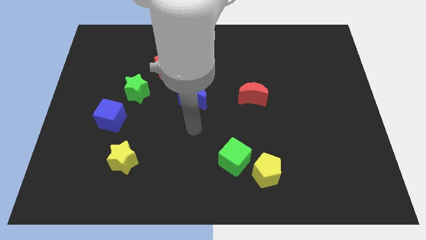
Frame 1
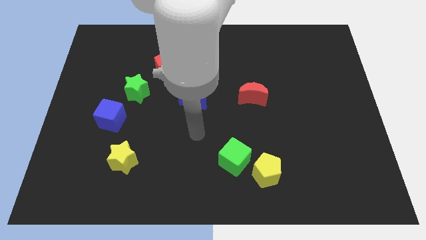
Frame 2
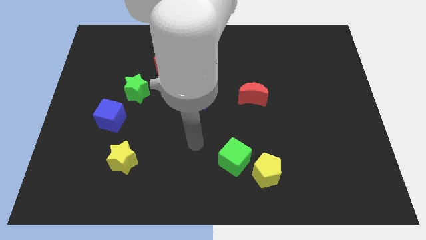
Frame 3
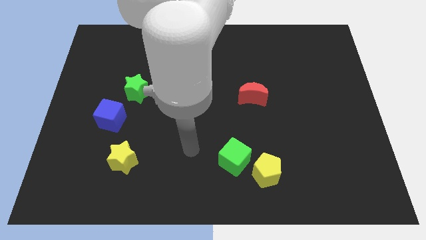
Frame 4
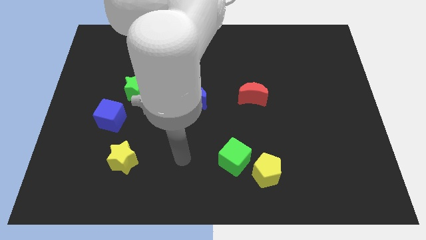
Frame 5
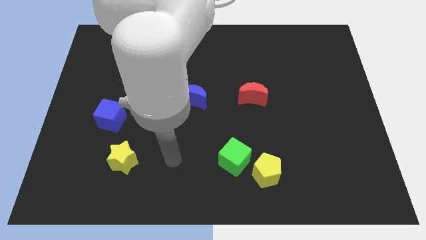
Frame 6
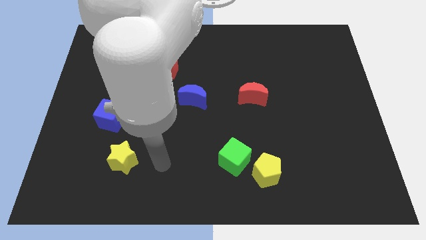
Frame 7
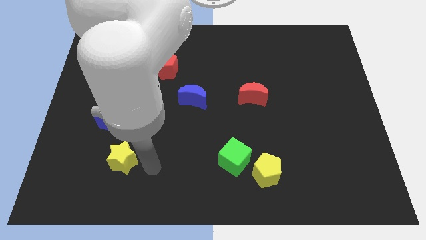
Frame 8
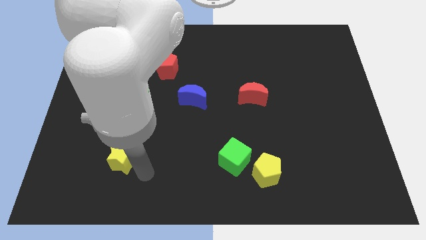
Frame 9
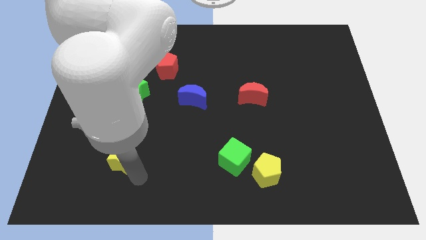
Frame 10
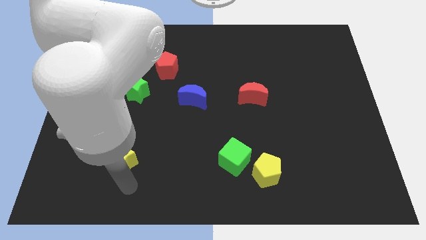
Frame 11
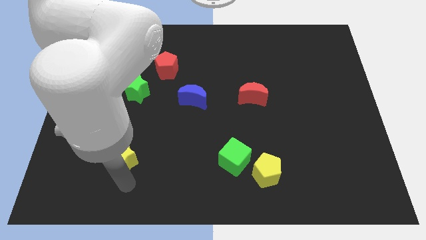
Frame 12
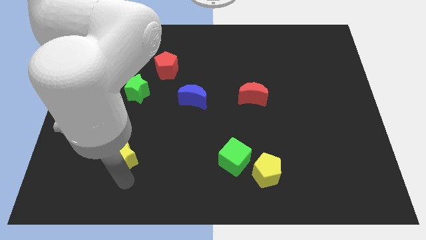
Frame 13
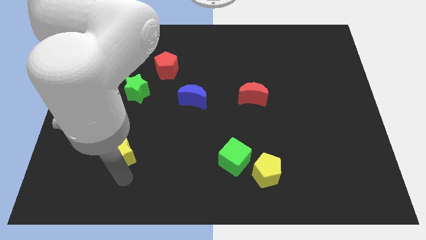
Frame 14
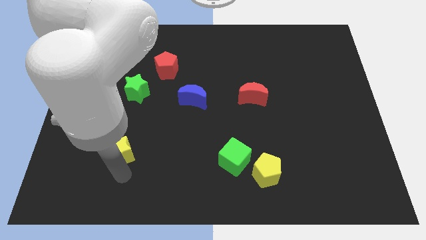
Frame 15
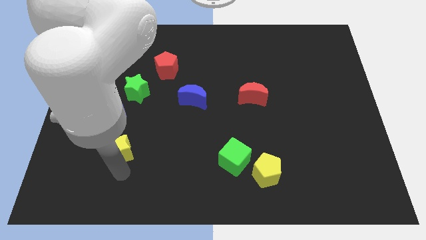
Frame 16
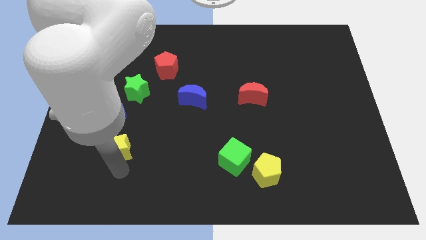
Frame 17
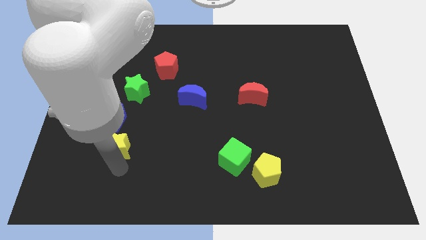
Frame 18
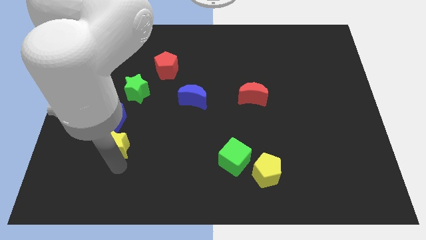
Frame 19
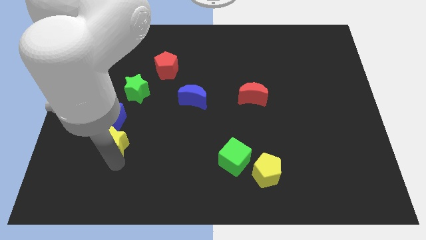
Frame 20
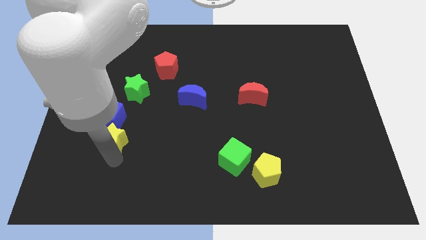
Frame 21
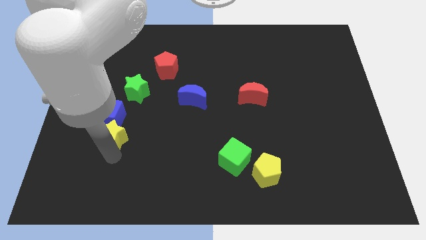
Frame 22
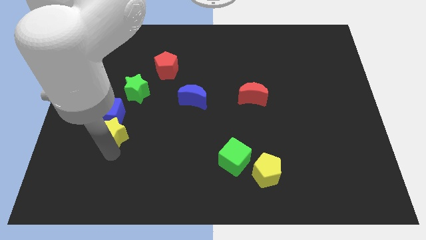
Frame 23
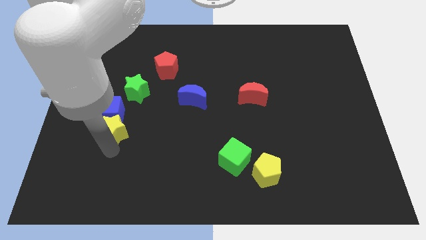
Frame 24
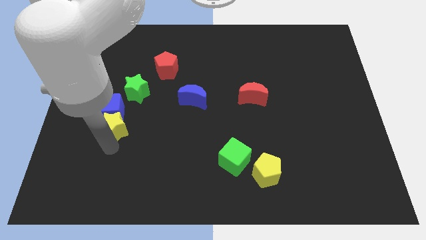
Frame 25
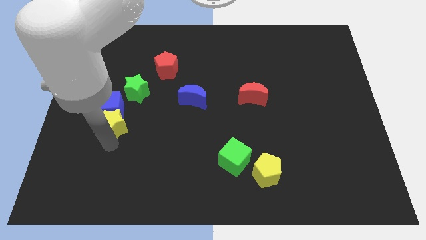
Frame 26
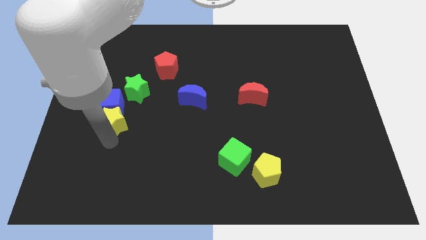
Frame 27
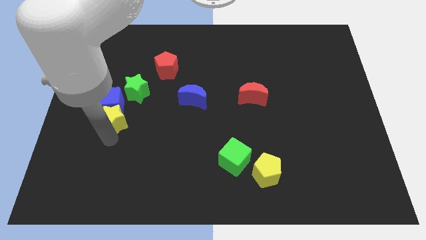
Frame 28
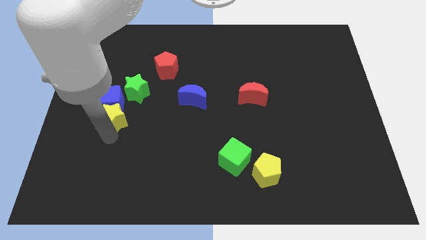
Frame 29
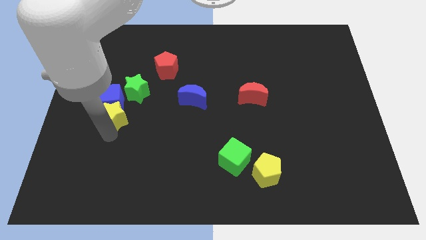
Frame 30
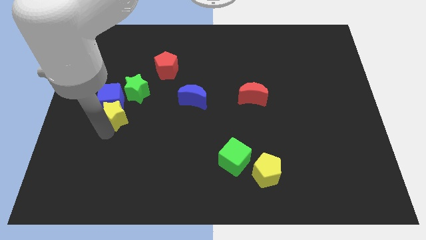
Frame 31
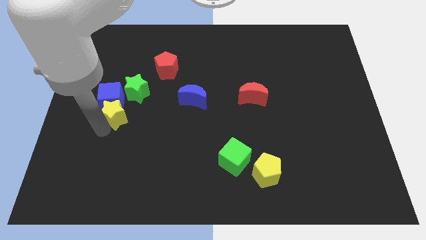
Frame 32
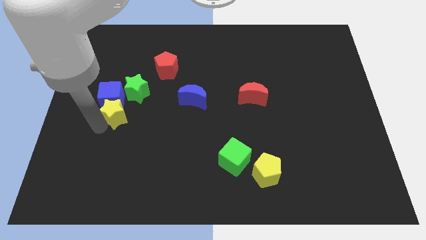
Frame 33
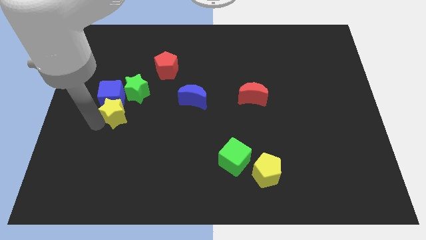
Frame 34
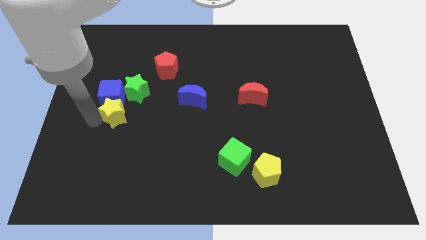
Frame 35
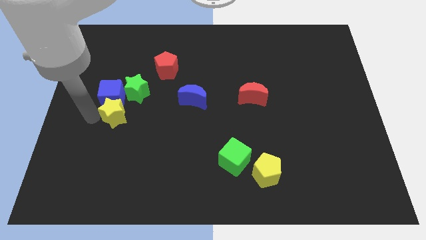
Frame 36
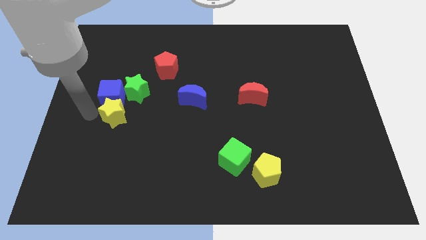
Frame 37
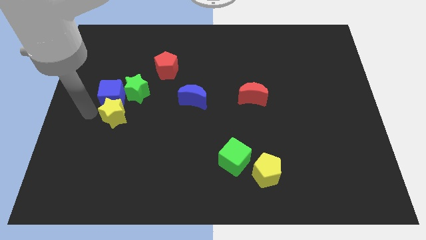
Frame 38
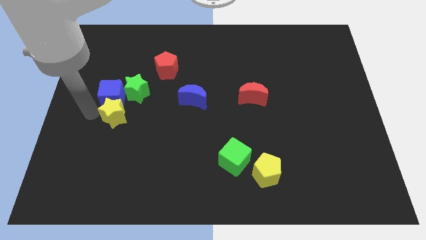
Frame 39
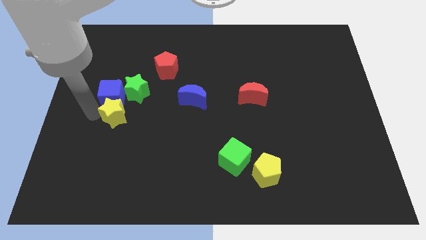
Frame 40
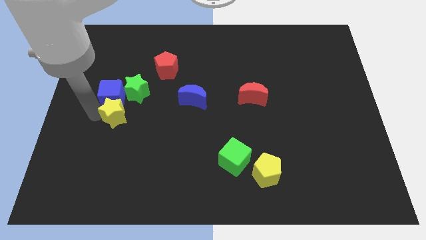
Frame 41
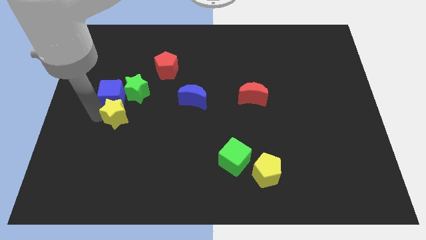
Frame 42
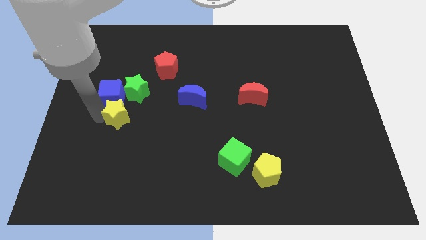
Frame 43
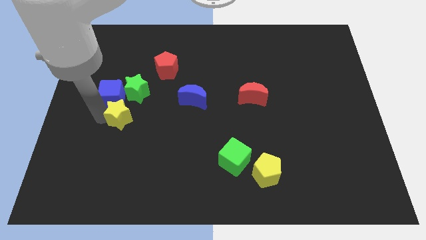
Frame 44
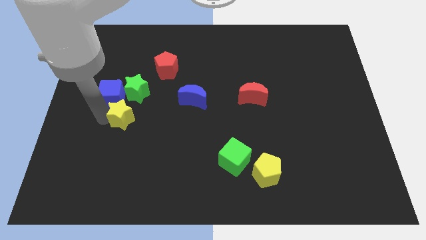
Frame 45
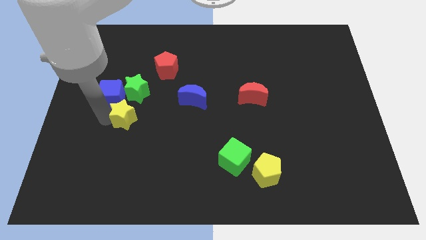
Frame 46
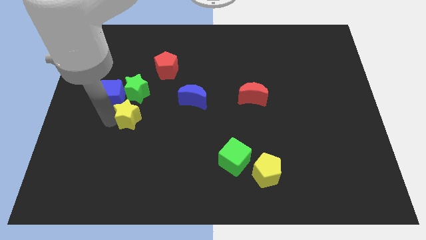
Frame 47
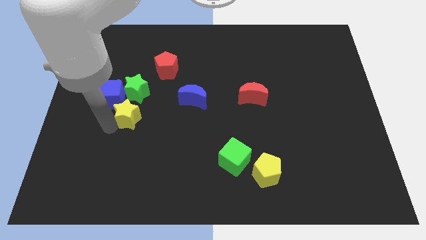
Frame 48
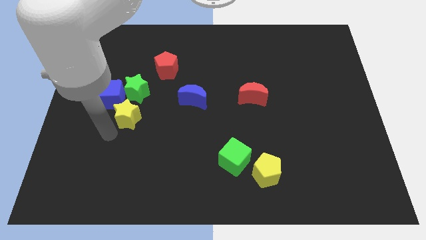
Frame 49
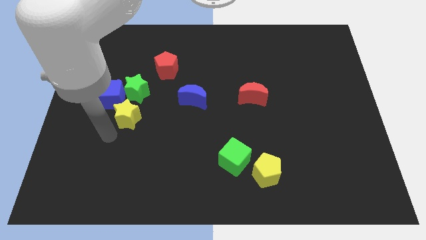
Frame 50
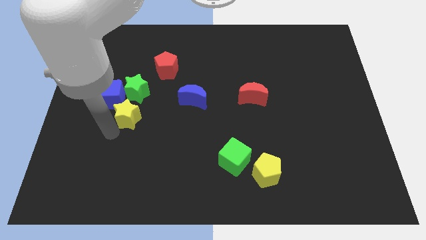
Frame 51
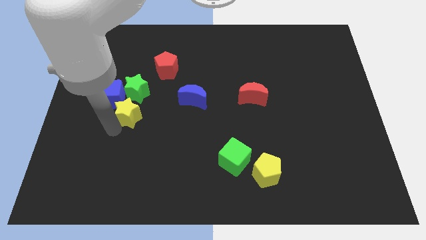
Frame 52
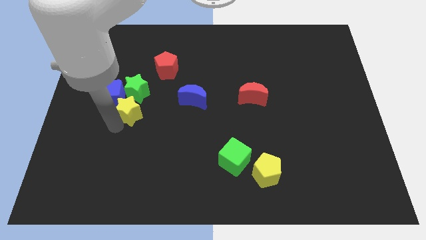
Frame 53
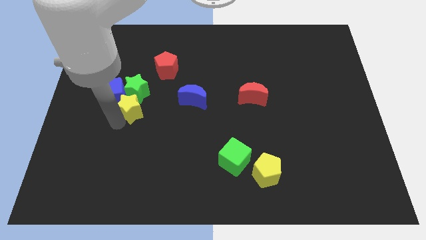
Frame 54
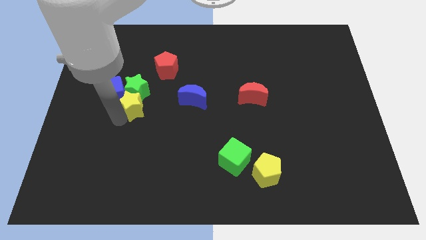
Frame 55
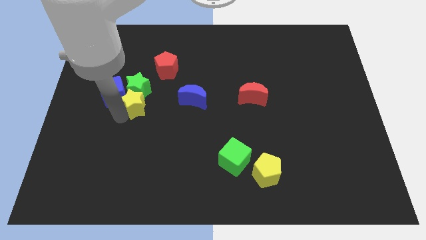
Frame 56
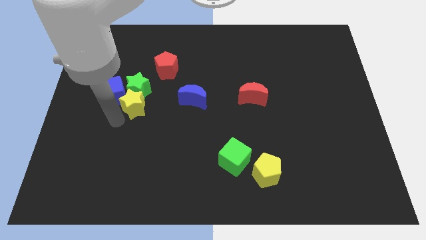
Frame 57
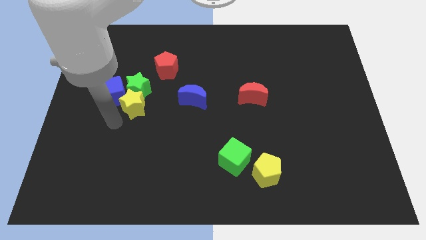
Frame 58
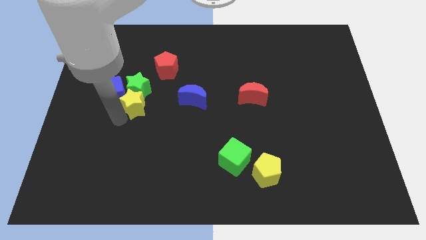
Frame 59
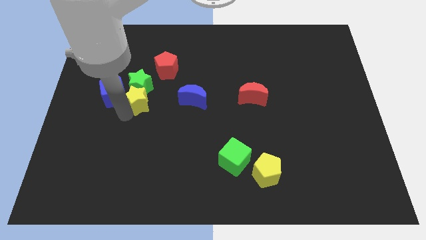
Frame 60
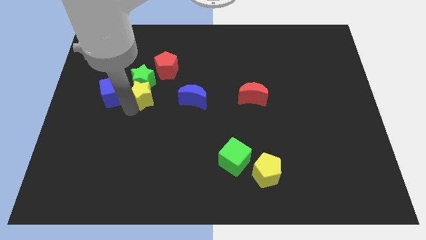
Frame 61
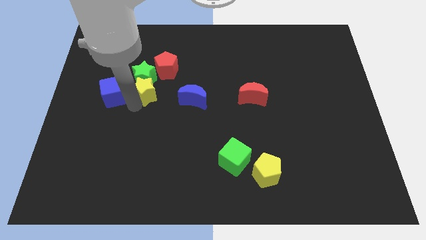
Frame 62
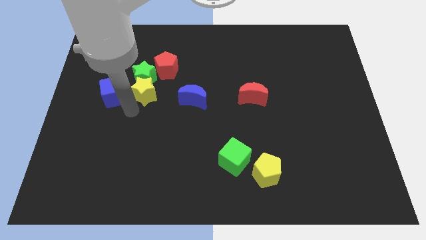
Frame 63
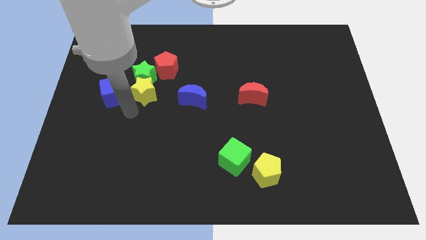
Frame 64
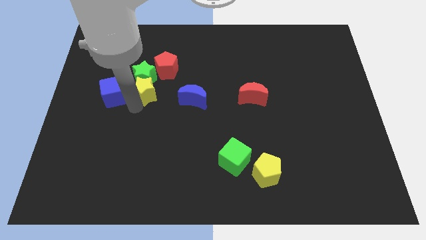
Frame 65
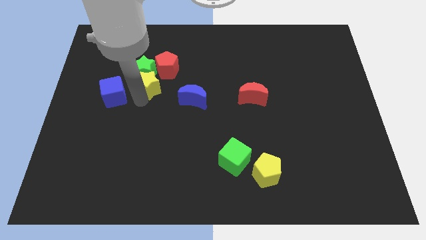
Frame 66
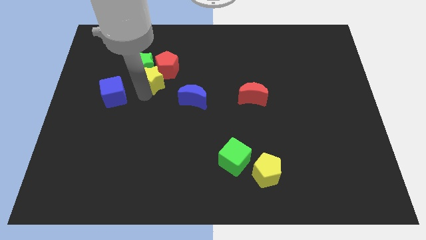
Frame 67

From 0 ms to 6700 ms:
slide the yellow star towards the red pentagon

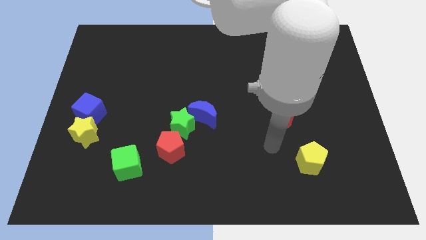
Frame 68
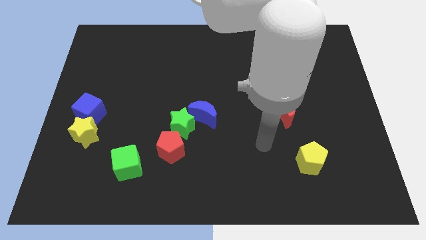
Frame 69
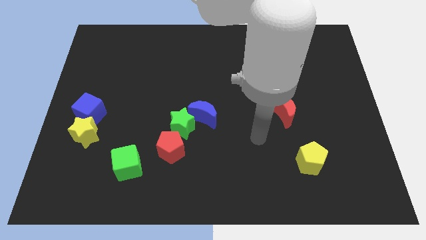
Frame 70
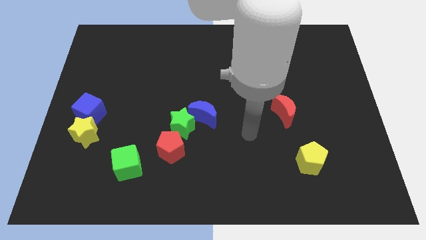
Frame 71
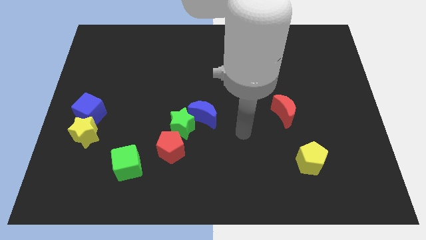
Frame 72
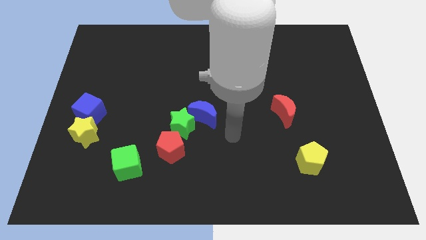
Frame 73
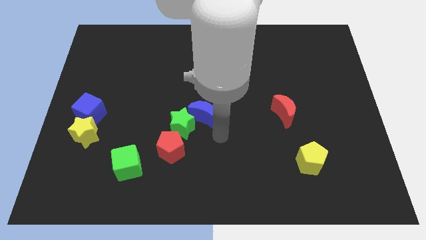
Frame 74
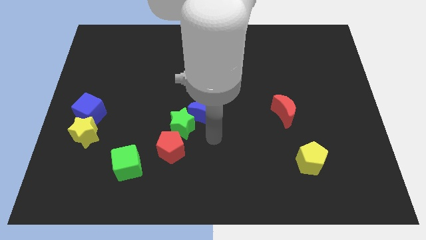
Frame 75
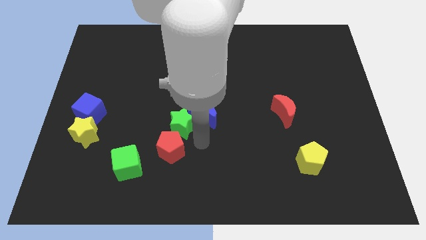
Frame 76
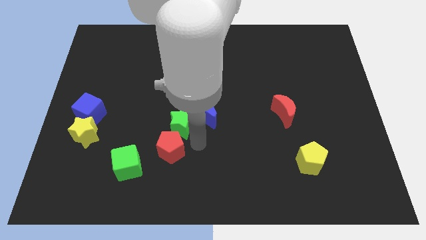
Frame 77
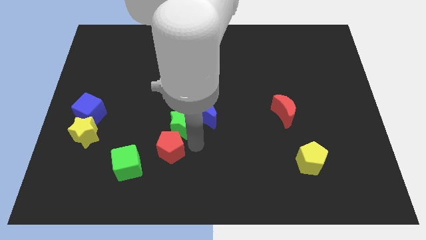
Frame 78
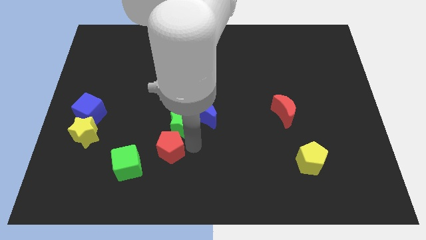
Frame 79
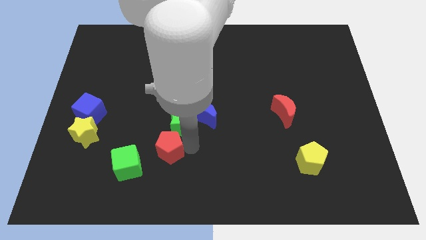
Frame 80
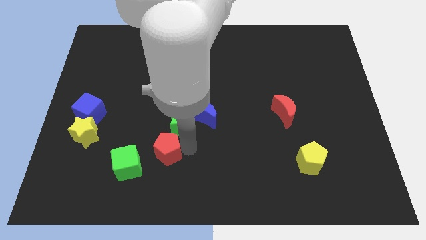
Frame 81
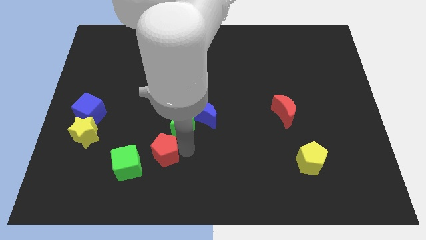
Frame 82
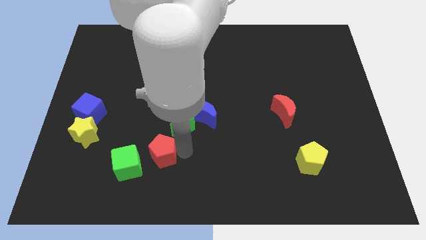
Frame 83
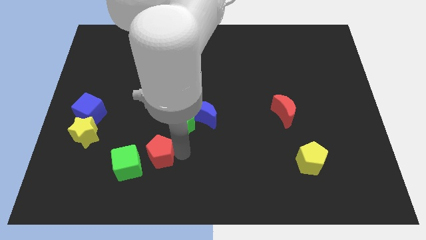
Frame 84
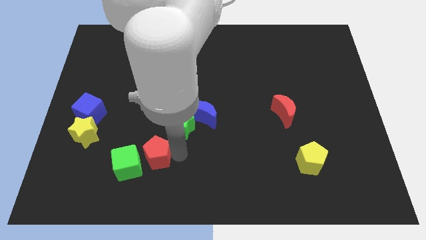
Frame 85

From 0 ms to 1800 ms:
push the red pentagon to the green cube
